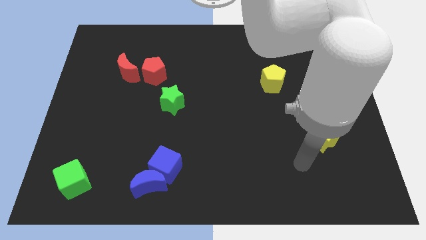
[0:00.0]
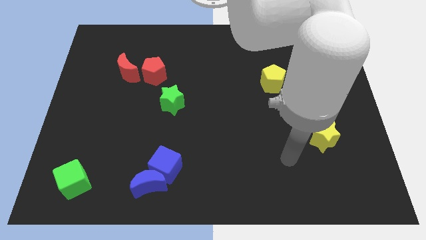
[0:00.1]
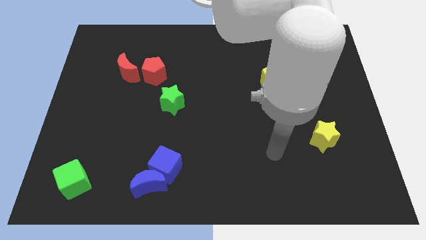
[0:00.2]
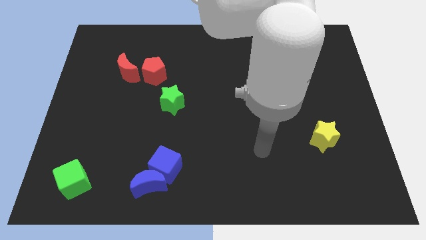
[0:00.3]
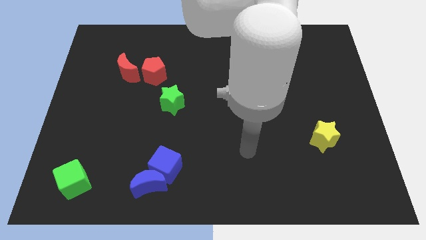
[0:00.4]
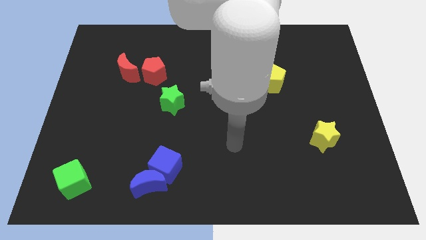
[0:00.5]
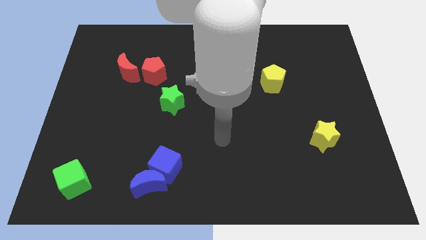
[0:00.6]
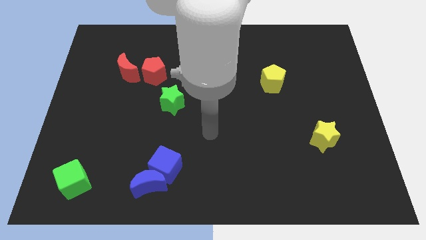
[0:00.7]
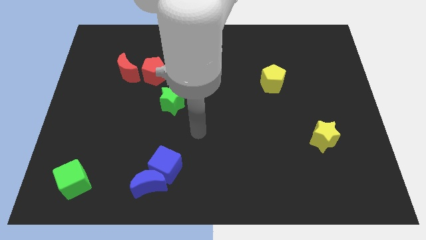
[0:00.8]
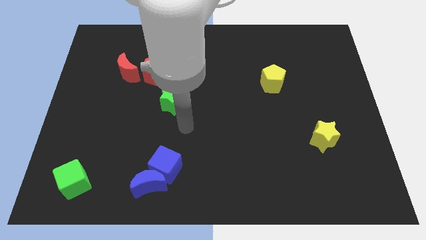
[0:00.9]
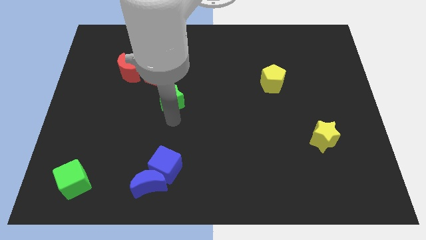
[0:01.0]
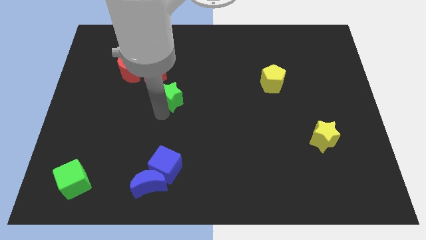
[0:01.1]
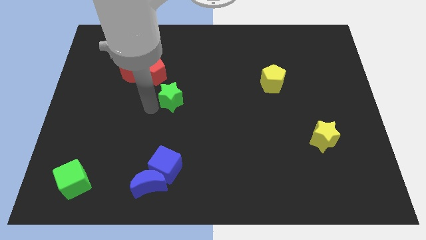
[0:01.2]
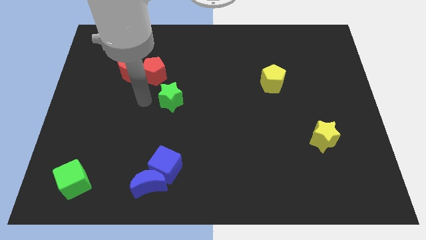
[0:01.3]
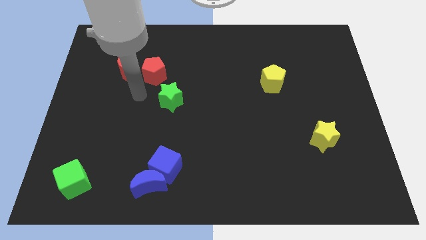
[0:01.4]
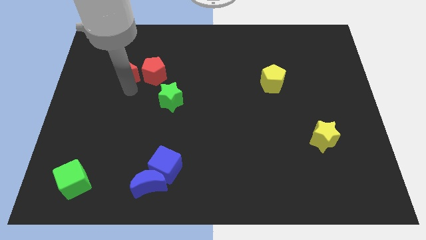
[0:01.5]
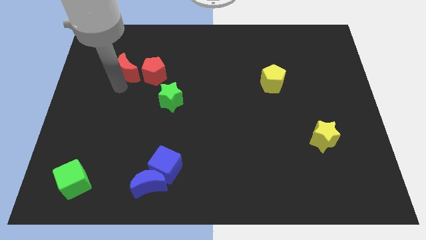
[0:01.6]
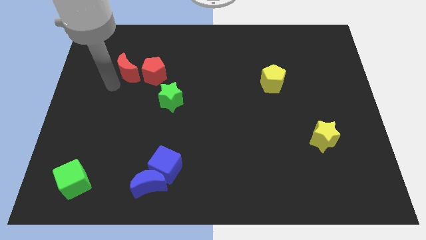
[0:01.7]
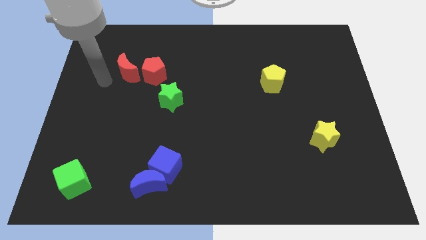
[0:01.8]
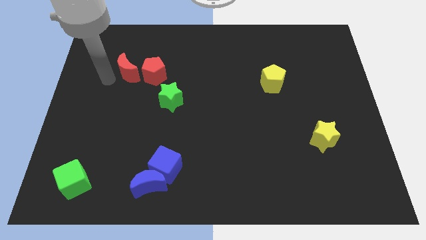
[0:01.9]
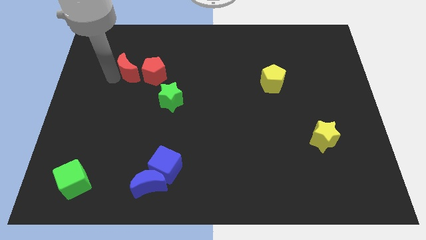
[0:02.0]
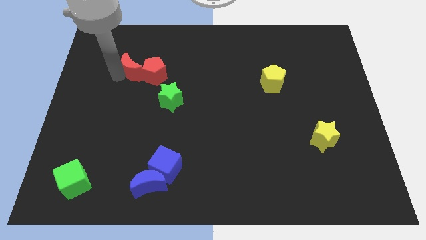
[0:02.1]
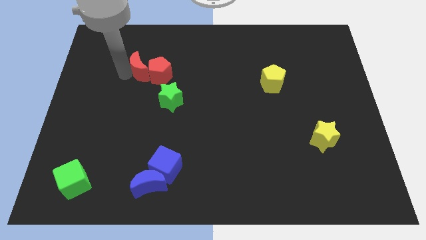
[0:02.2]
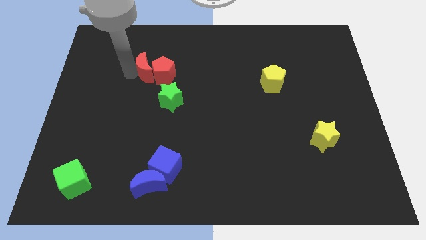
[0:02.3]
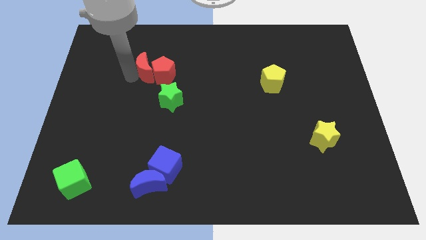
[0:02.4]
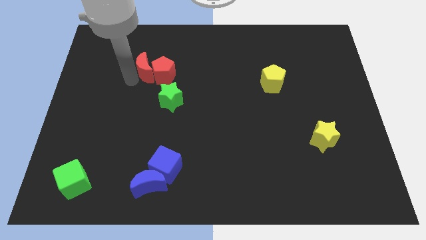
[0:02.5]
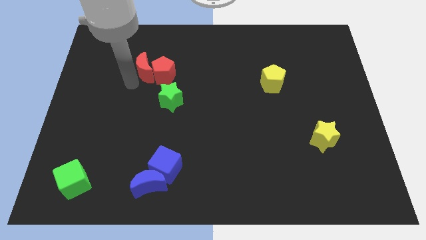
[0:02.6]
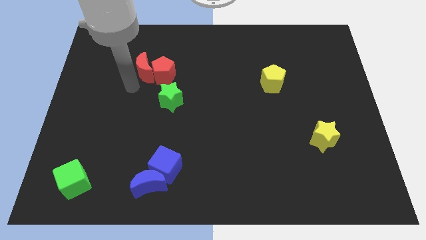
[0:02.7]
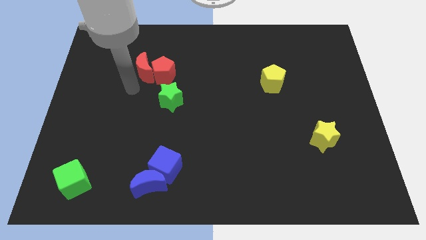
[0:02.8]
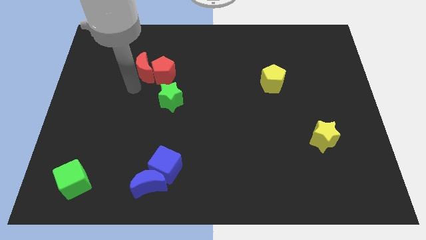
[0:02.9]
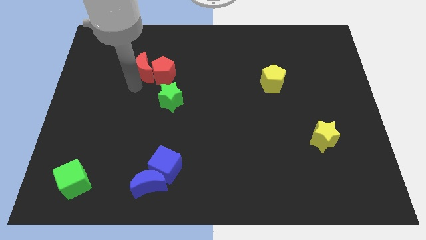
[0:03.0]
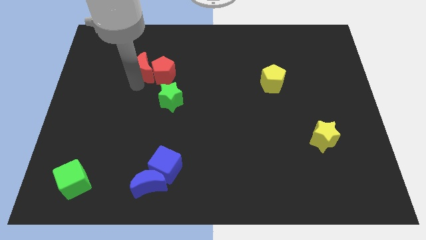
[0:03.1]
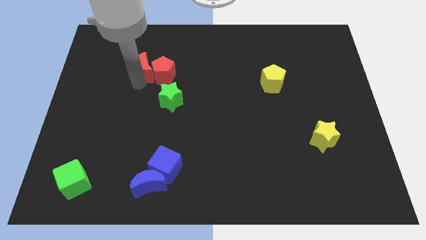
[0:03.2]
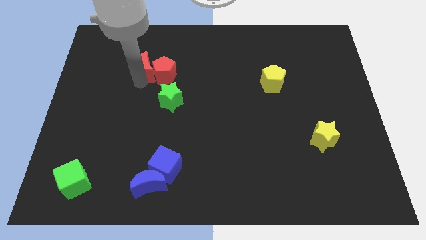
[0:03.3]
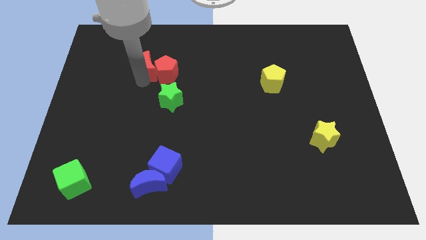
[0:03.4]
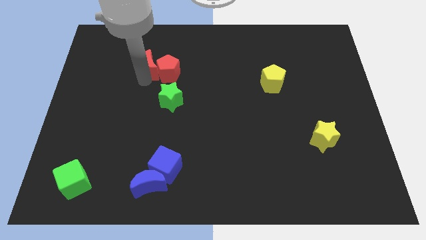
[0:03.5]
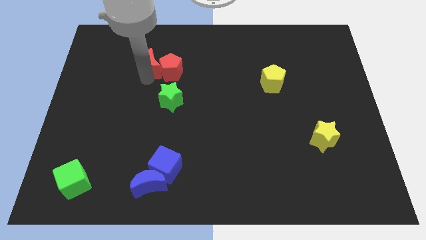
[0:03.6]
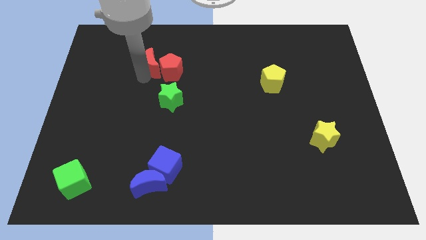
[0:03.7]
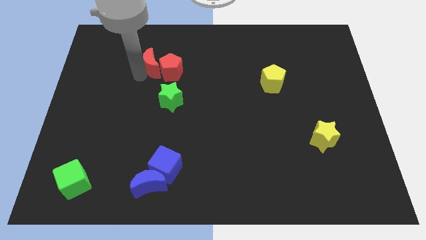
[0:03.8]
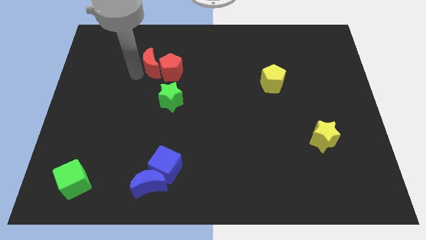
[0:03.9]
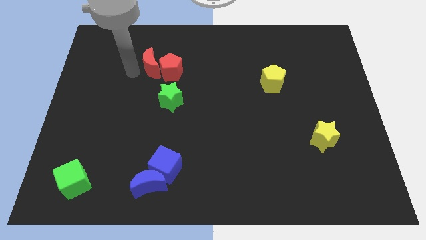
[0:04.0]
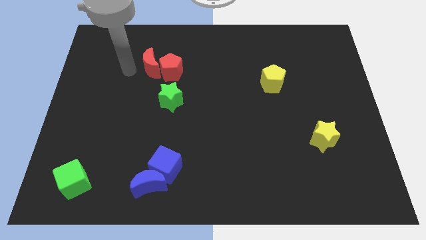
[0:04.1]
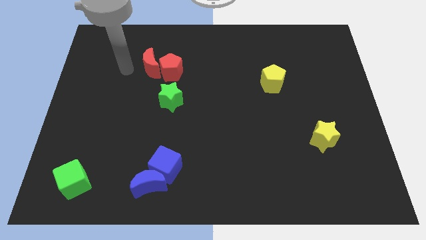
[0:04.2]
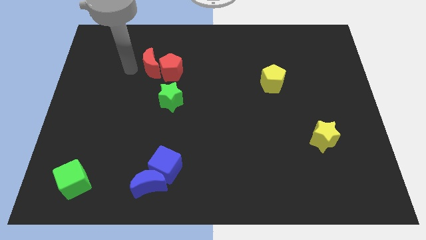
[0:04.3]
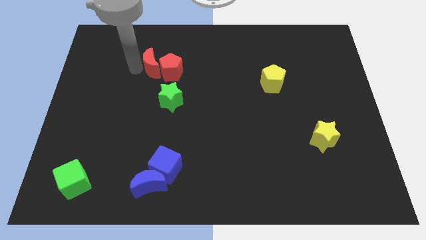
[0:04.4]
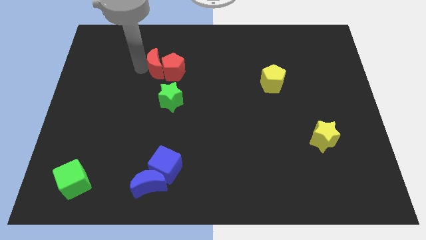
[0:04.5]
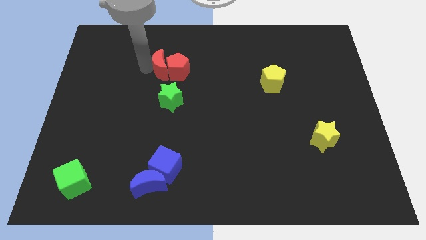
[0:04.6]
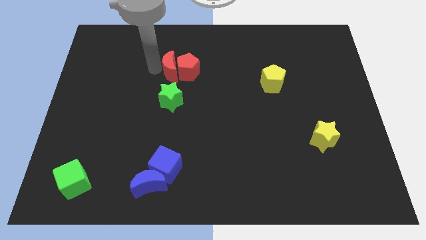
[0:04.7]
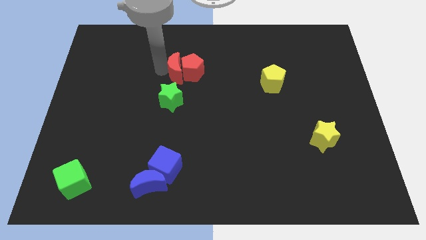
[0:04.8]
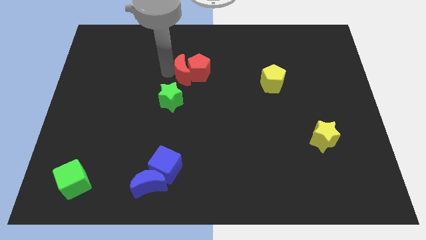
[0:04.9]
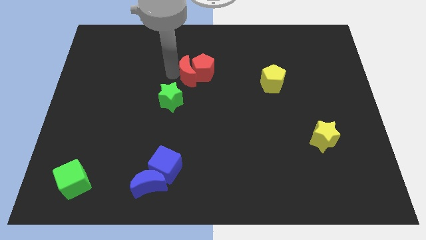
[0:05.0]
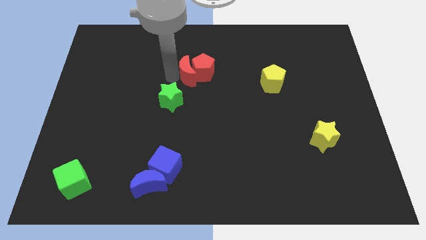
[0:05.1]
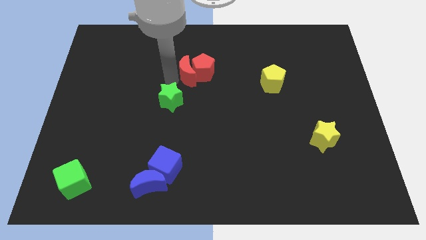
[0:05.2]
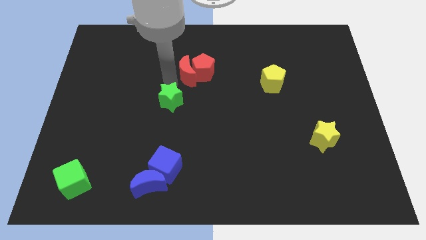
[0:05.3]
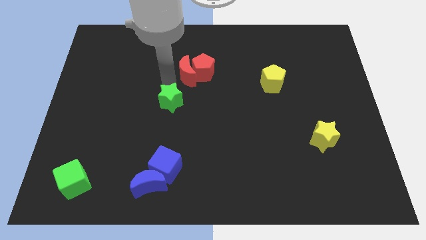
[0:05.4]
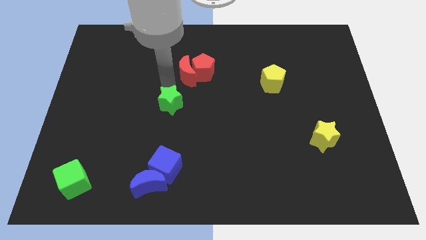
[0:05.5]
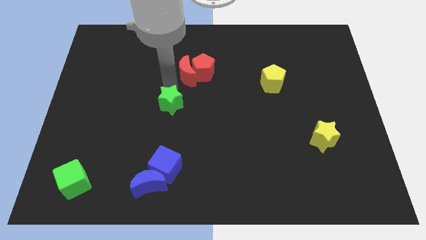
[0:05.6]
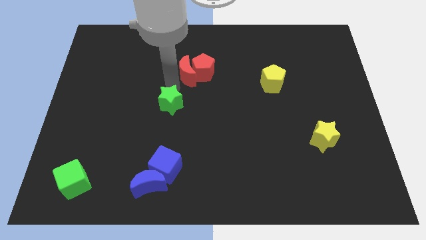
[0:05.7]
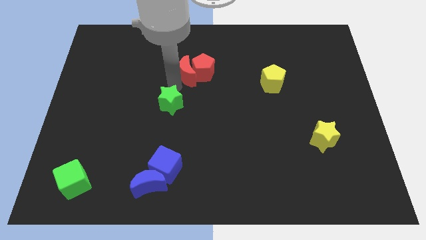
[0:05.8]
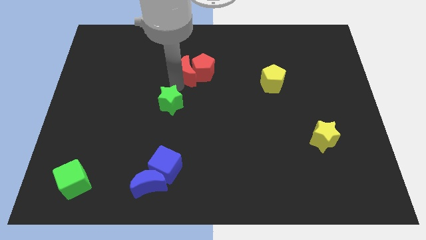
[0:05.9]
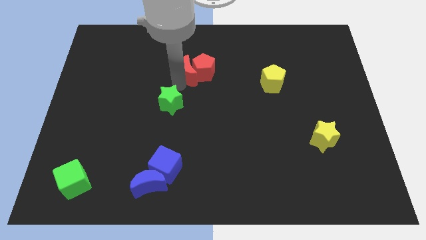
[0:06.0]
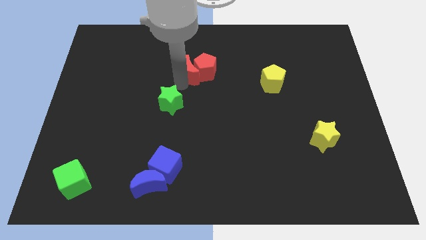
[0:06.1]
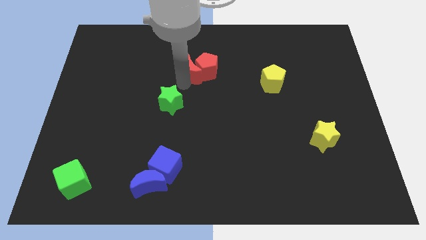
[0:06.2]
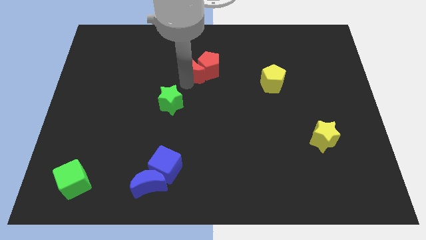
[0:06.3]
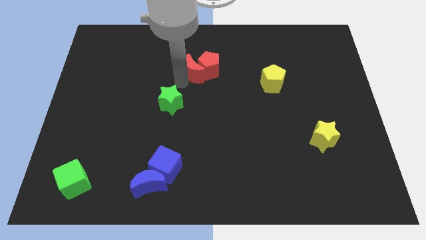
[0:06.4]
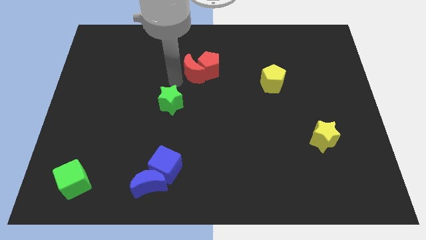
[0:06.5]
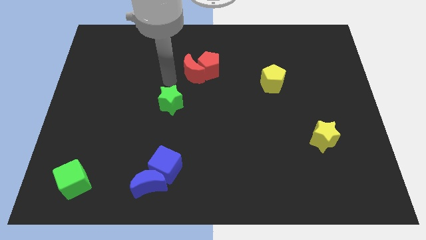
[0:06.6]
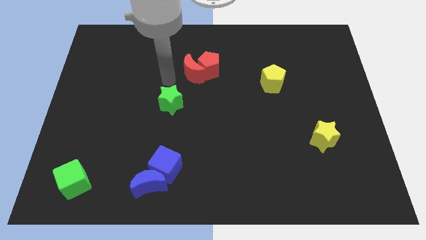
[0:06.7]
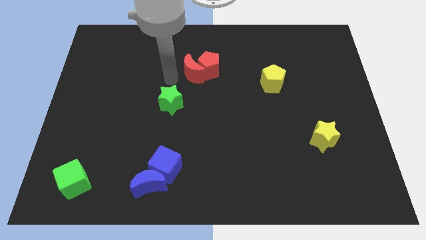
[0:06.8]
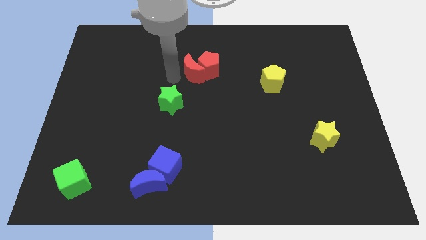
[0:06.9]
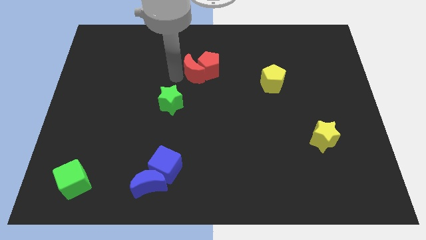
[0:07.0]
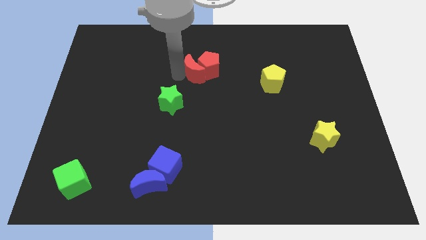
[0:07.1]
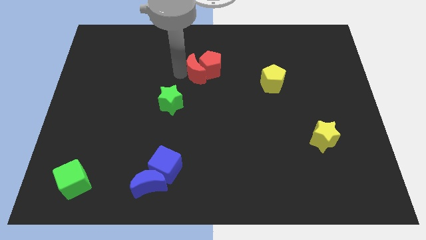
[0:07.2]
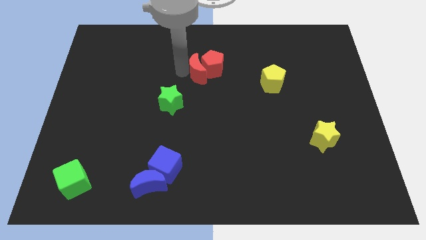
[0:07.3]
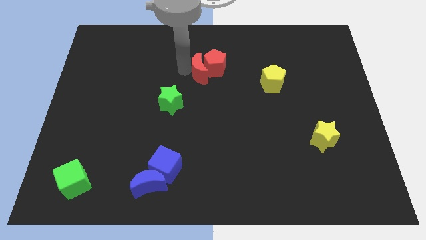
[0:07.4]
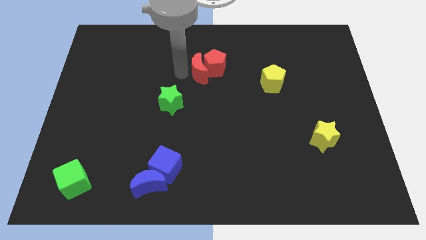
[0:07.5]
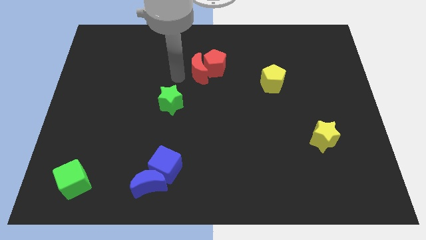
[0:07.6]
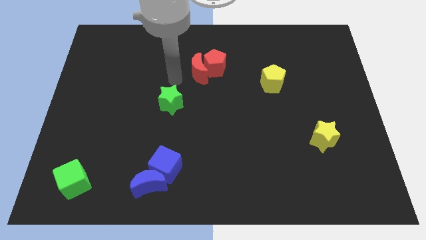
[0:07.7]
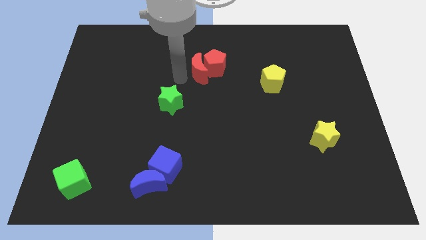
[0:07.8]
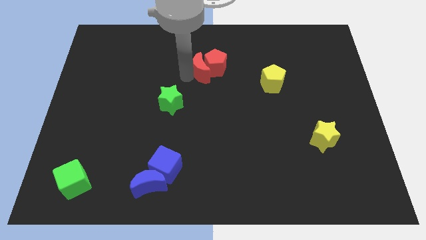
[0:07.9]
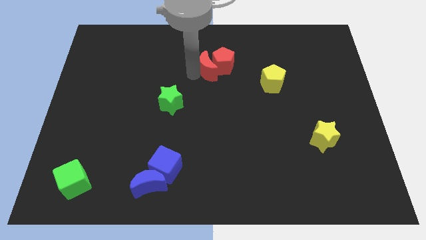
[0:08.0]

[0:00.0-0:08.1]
move the red moon to the right

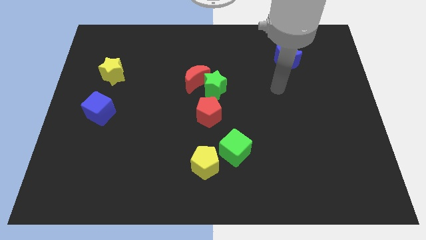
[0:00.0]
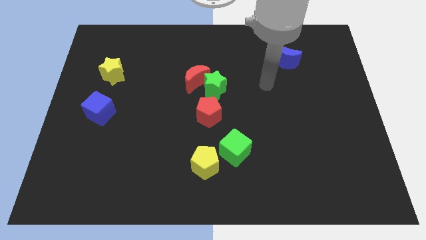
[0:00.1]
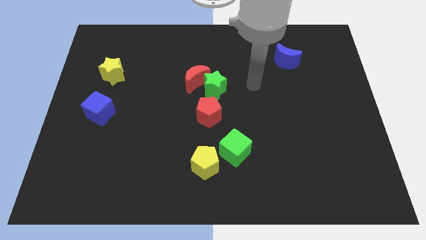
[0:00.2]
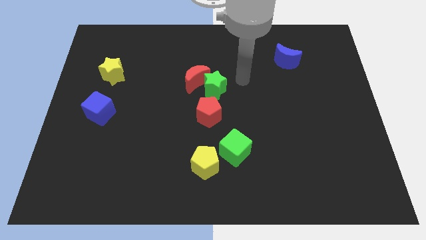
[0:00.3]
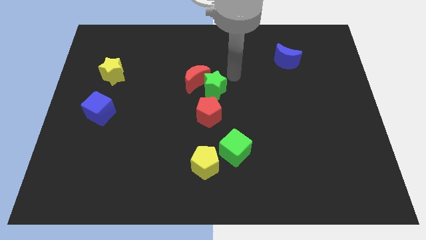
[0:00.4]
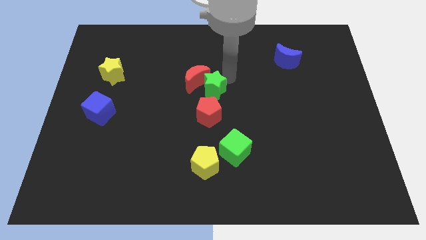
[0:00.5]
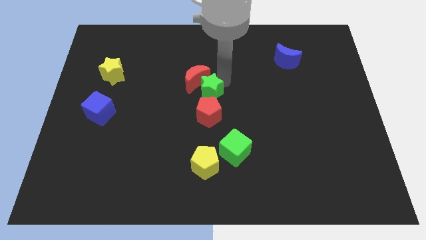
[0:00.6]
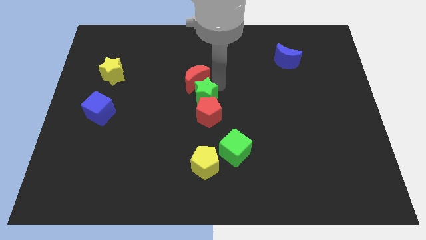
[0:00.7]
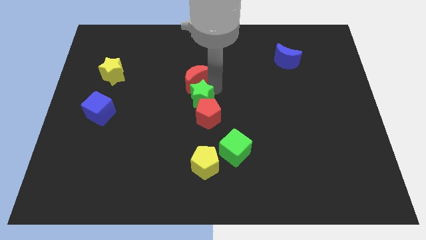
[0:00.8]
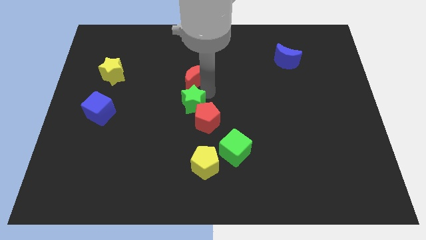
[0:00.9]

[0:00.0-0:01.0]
slide the green star diagonally downwards and left somewhat
